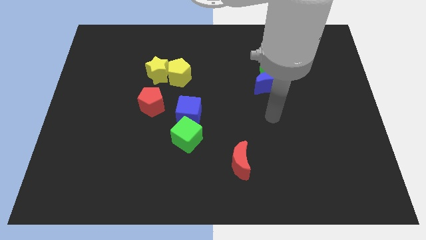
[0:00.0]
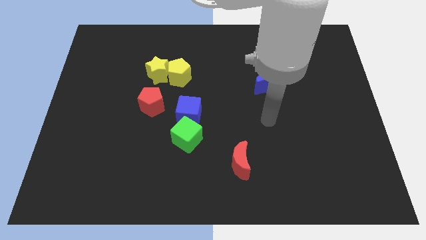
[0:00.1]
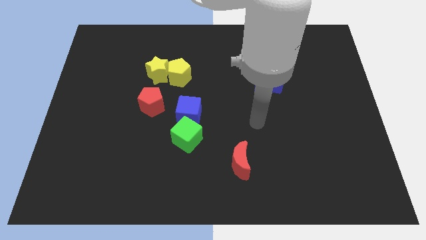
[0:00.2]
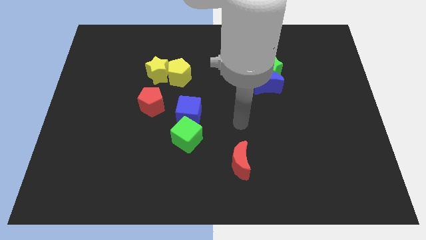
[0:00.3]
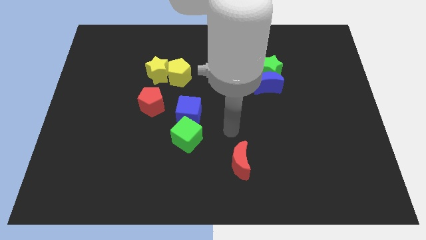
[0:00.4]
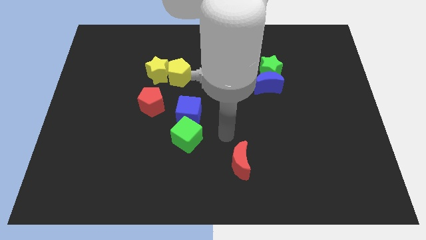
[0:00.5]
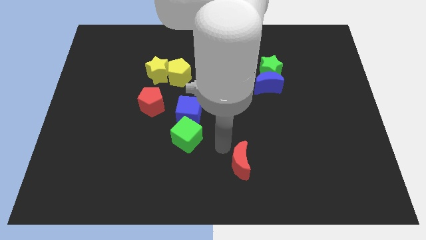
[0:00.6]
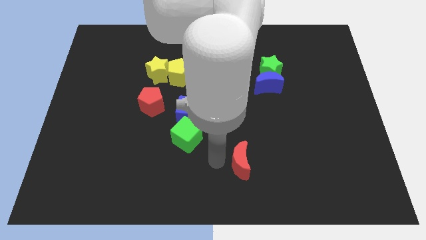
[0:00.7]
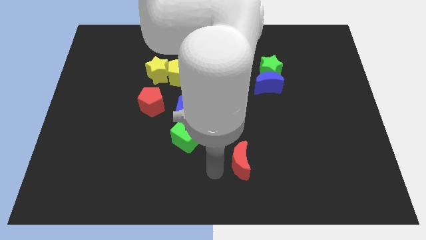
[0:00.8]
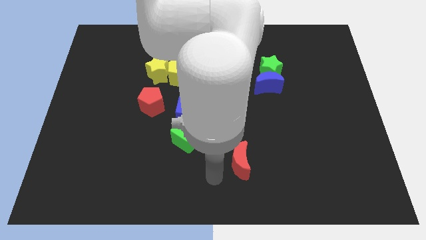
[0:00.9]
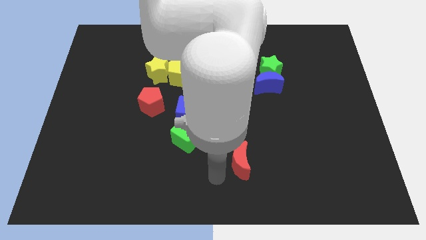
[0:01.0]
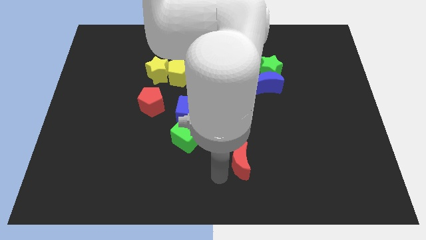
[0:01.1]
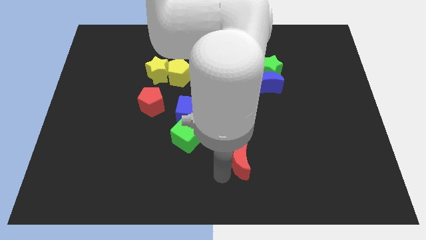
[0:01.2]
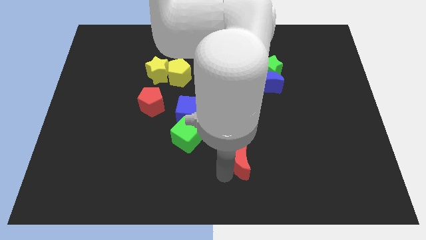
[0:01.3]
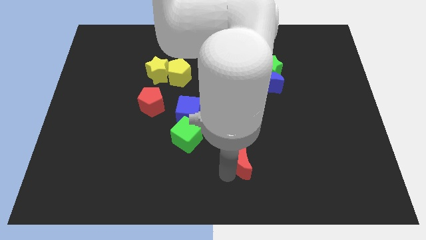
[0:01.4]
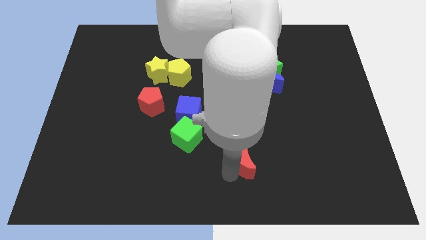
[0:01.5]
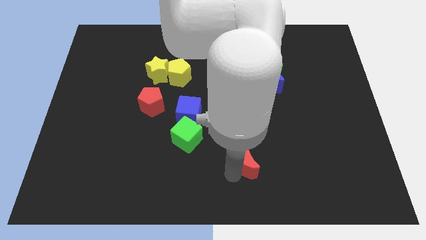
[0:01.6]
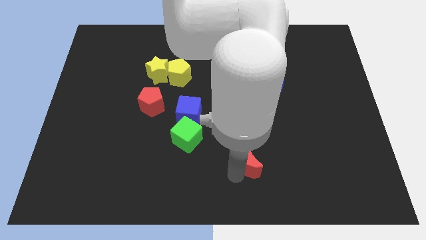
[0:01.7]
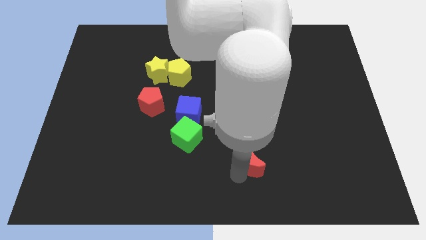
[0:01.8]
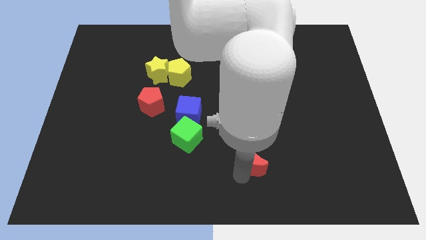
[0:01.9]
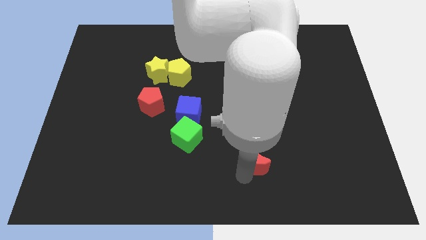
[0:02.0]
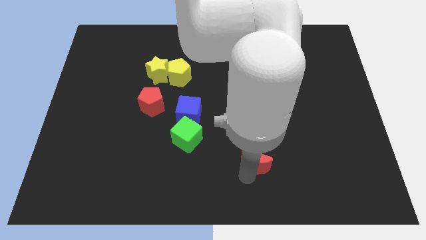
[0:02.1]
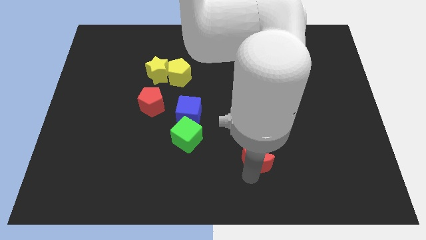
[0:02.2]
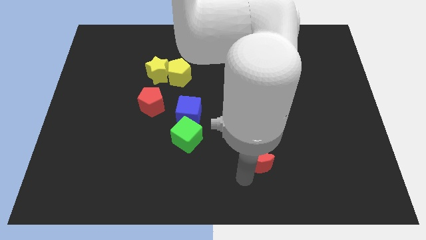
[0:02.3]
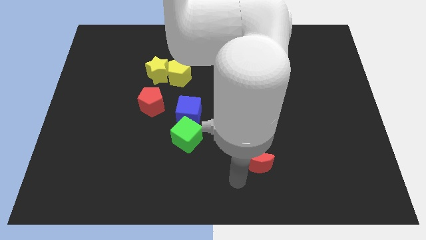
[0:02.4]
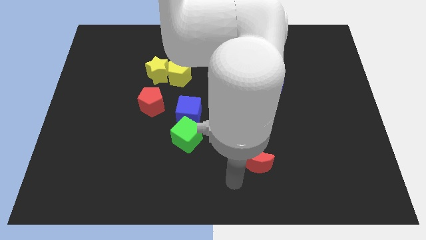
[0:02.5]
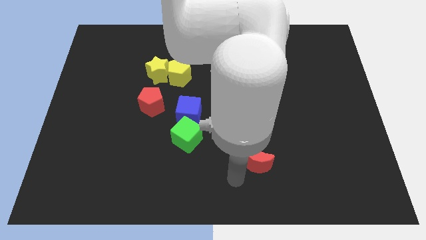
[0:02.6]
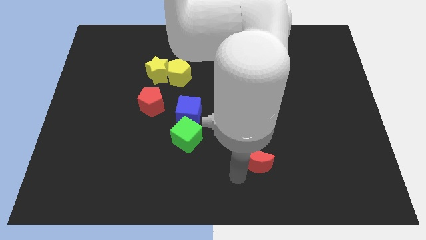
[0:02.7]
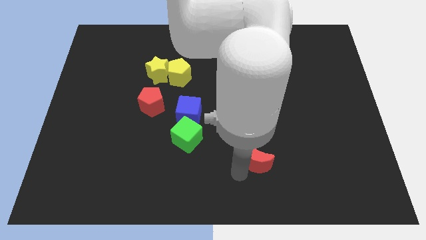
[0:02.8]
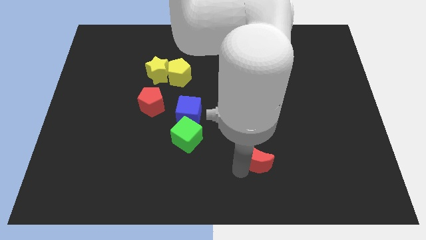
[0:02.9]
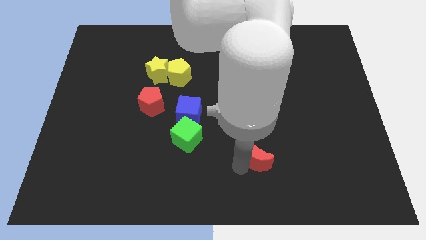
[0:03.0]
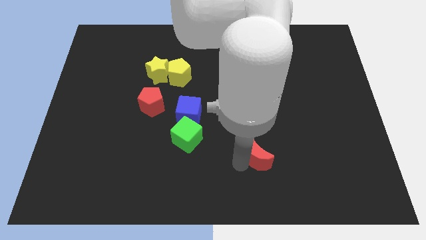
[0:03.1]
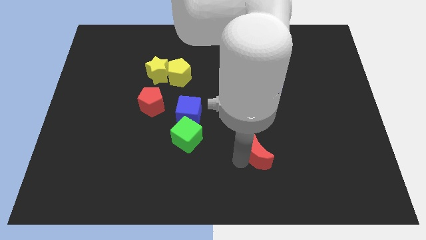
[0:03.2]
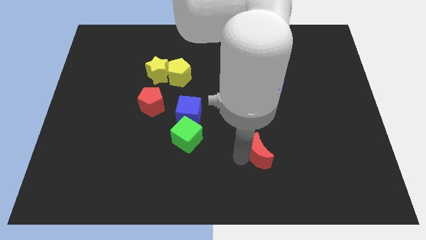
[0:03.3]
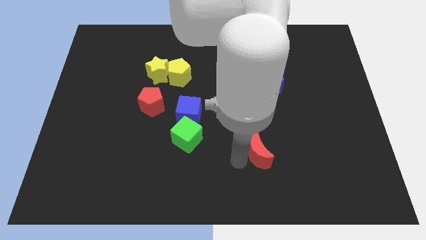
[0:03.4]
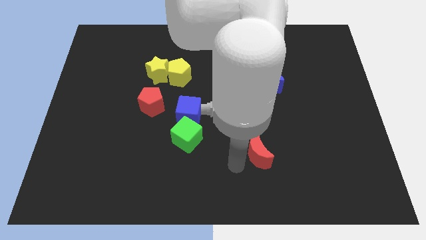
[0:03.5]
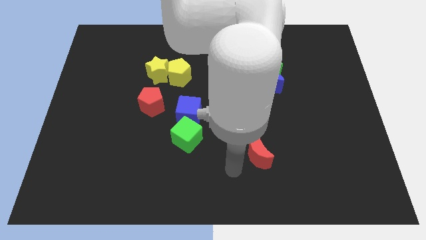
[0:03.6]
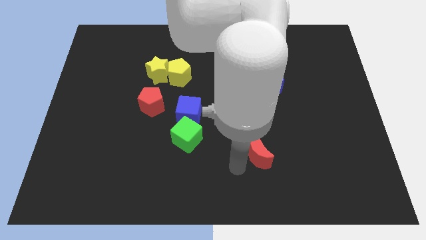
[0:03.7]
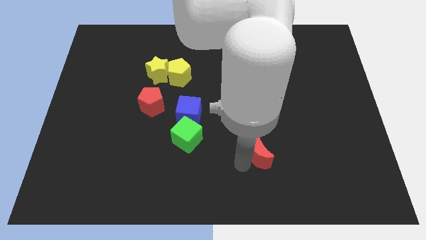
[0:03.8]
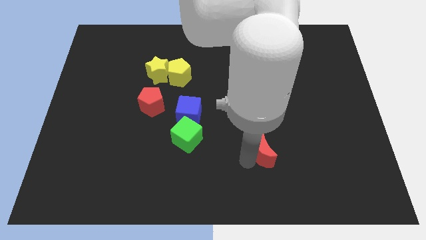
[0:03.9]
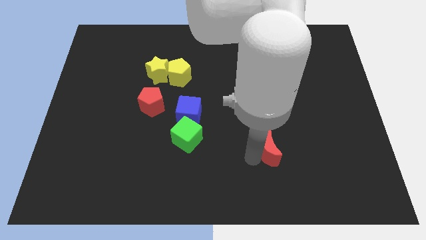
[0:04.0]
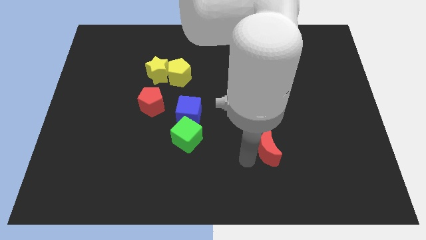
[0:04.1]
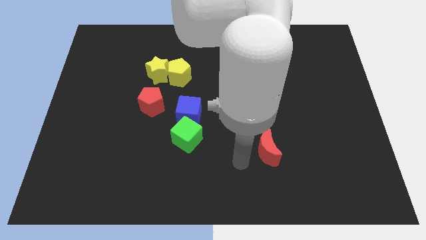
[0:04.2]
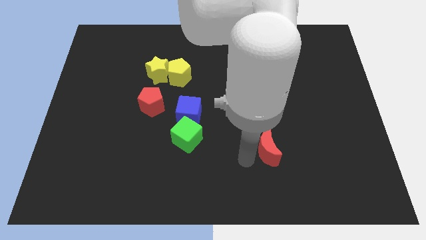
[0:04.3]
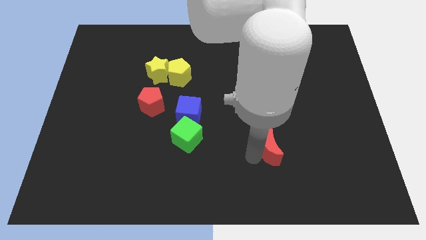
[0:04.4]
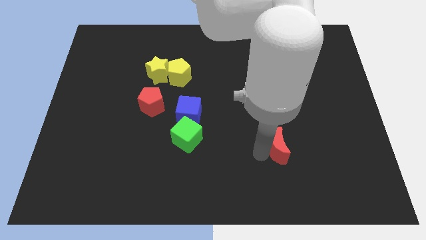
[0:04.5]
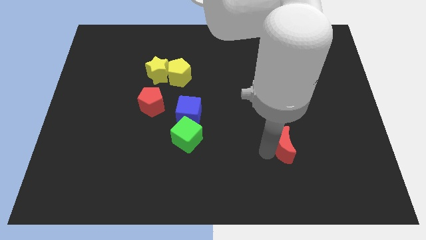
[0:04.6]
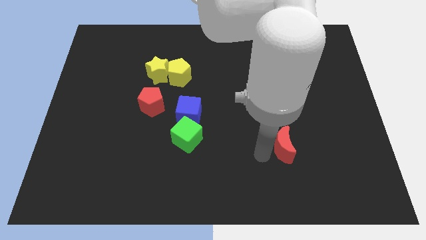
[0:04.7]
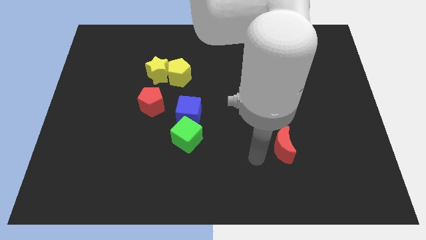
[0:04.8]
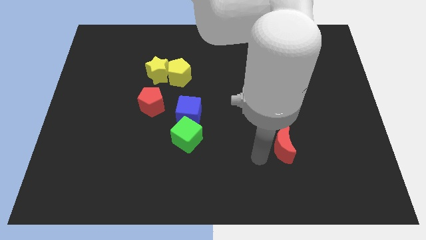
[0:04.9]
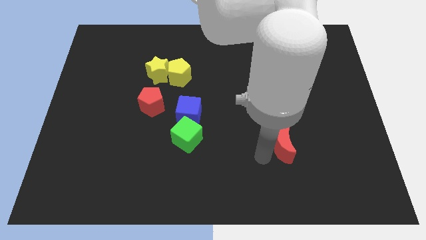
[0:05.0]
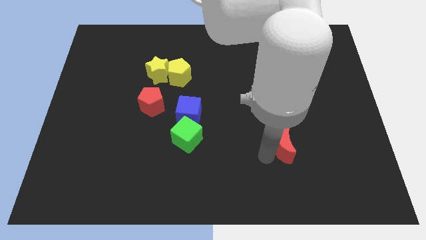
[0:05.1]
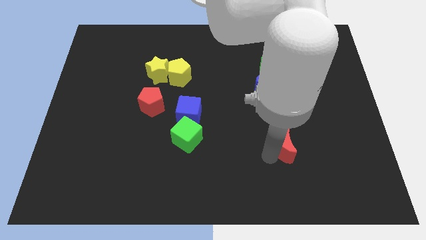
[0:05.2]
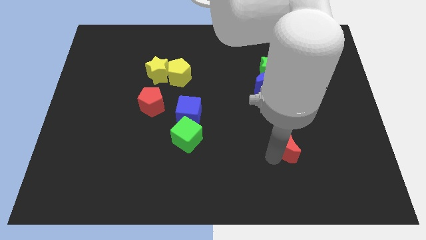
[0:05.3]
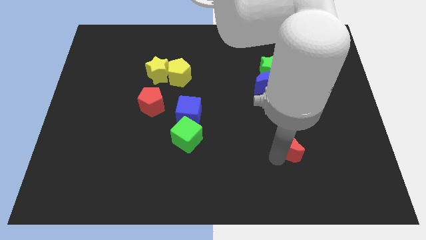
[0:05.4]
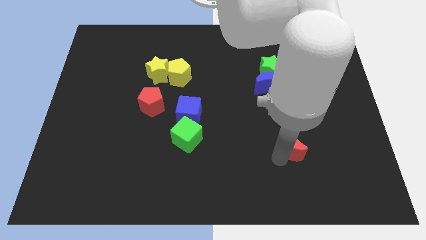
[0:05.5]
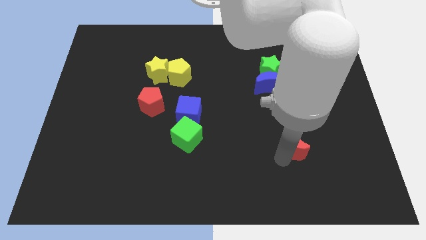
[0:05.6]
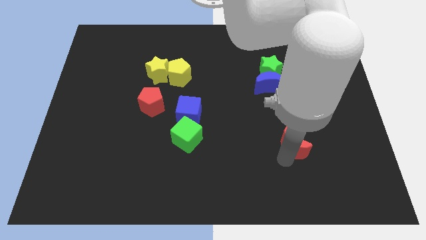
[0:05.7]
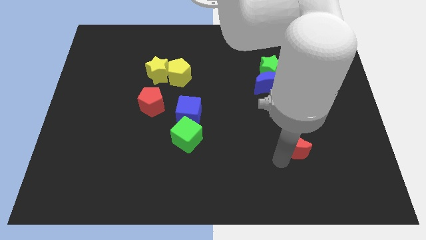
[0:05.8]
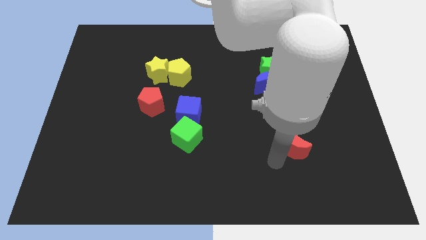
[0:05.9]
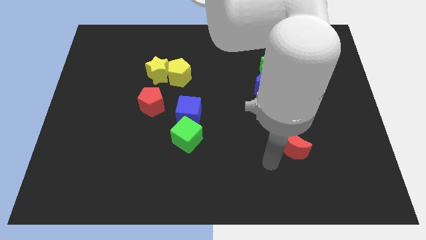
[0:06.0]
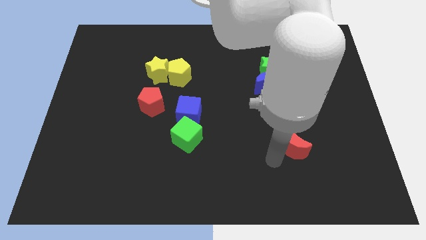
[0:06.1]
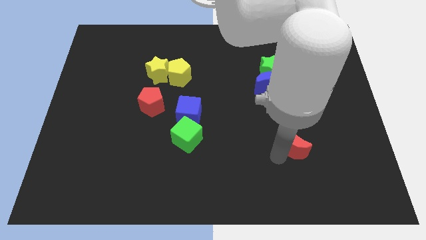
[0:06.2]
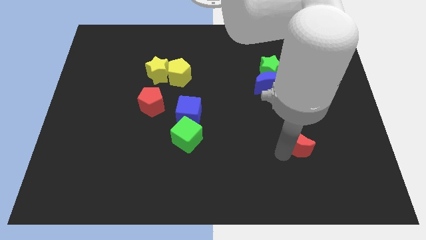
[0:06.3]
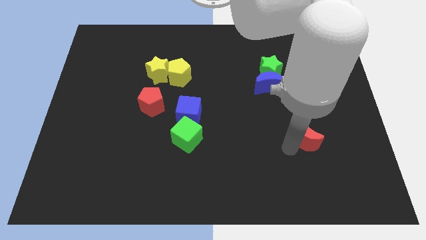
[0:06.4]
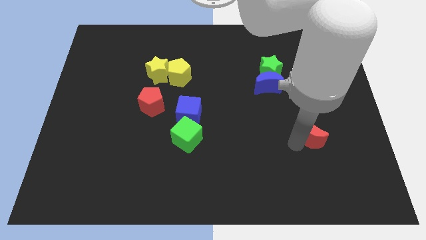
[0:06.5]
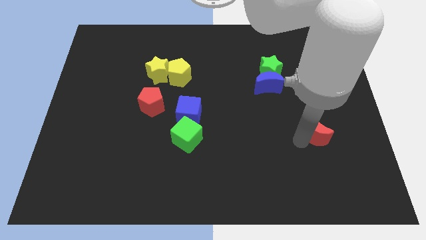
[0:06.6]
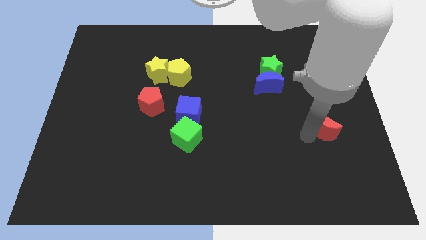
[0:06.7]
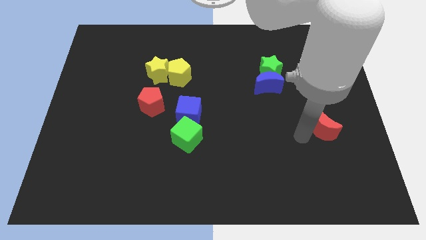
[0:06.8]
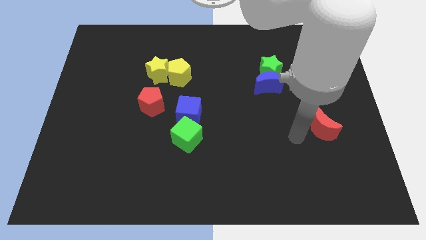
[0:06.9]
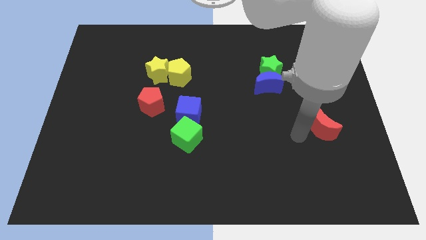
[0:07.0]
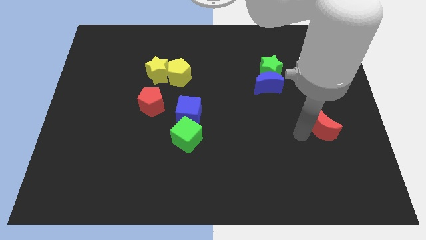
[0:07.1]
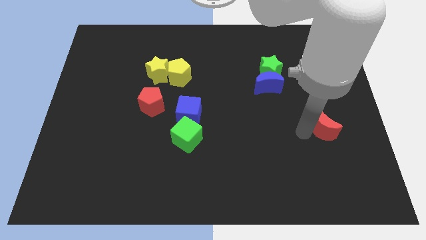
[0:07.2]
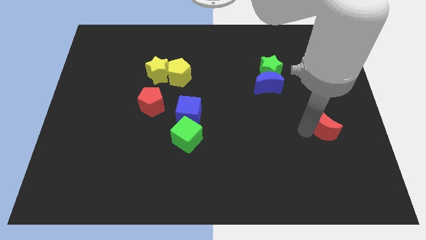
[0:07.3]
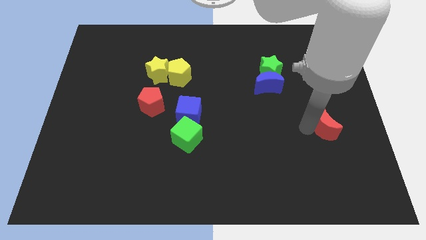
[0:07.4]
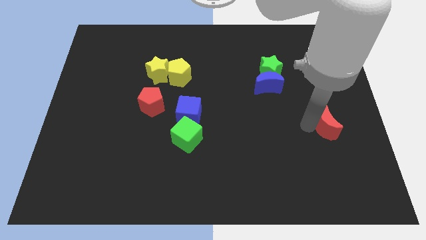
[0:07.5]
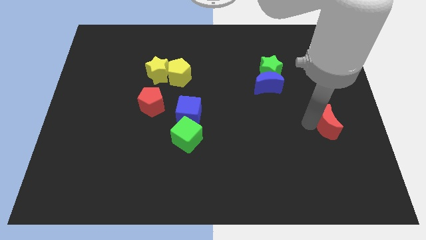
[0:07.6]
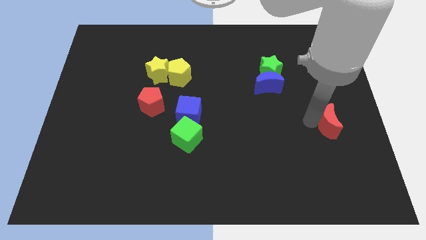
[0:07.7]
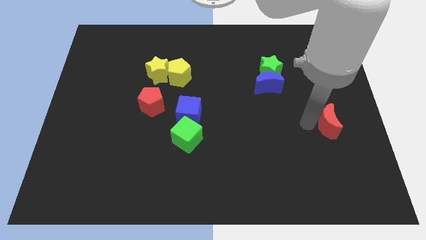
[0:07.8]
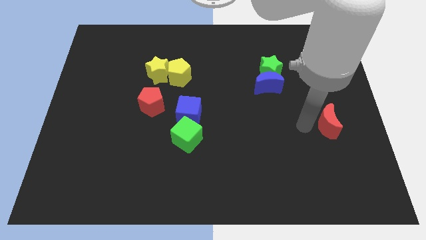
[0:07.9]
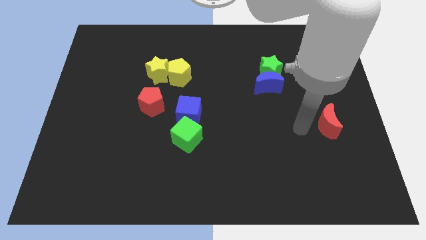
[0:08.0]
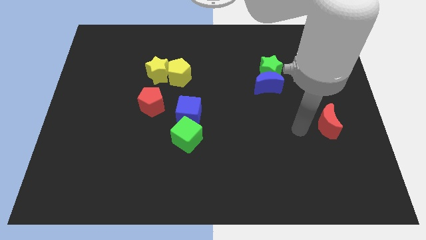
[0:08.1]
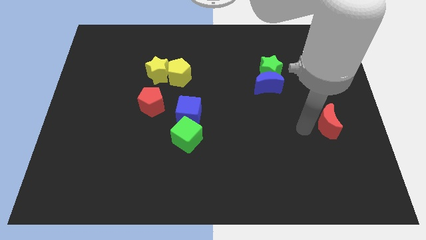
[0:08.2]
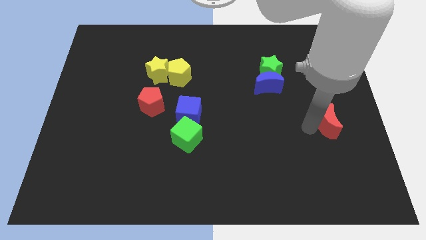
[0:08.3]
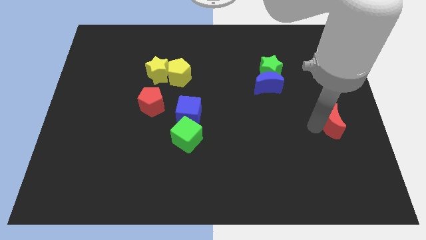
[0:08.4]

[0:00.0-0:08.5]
move the red moon to the right side of the board
